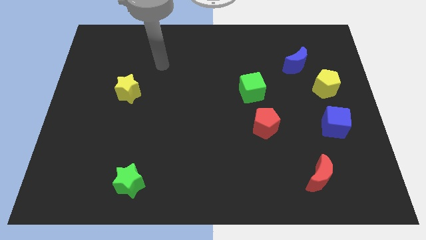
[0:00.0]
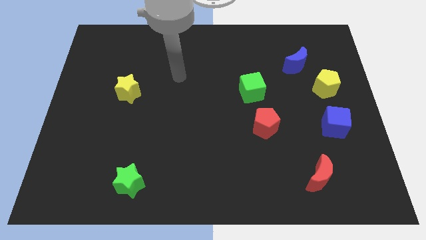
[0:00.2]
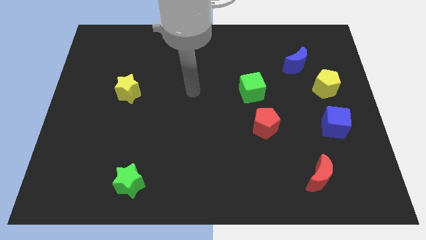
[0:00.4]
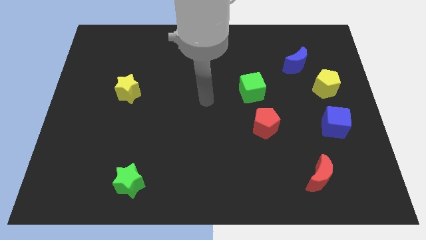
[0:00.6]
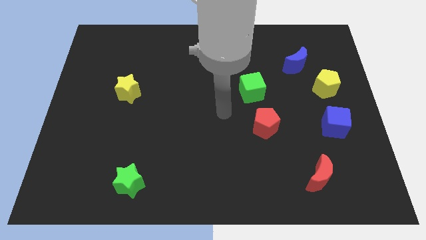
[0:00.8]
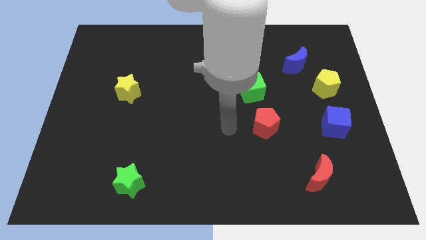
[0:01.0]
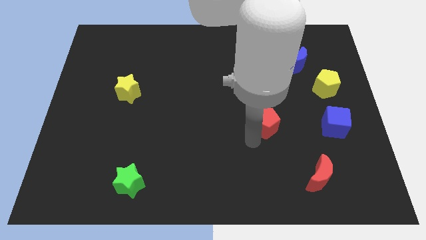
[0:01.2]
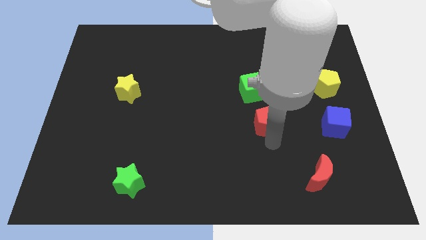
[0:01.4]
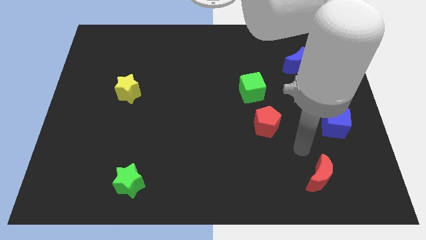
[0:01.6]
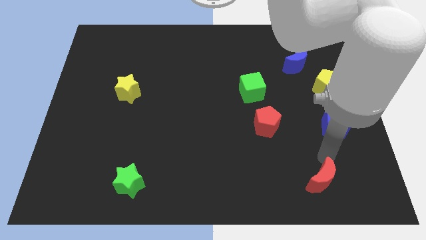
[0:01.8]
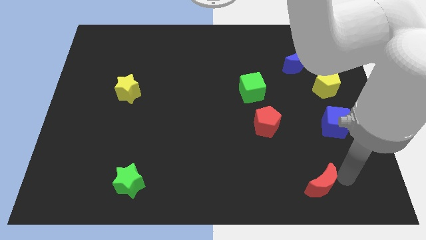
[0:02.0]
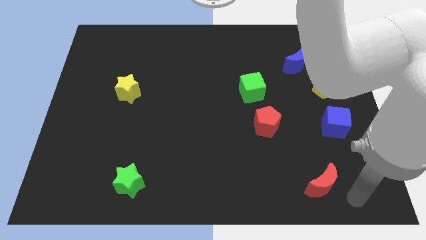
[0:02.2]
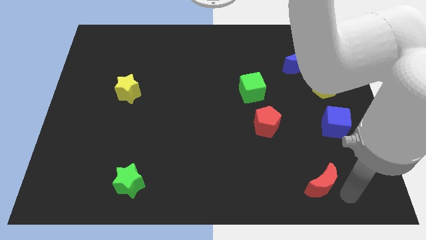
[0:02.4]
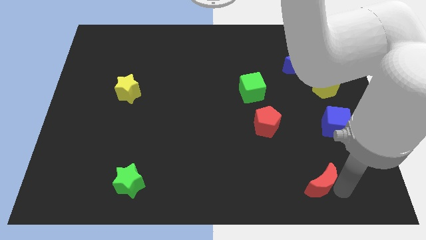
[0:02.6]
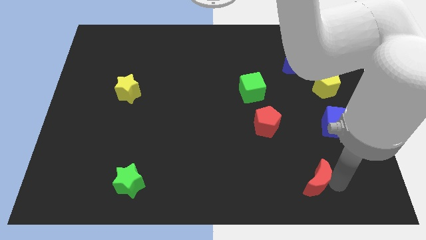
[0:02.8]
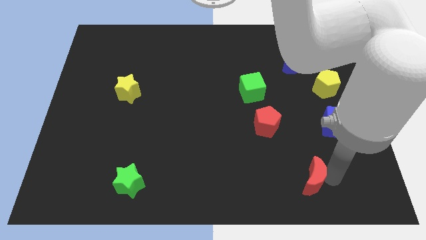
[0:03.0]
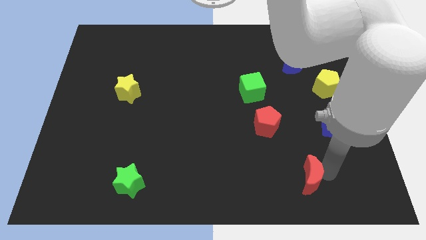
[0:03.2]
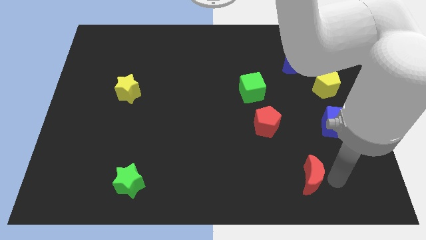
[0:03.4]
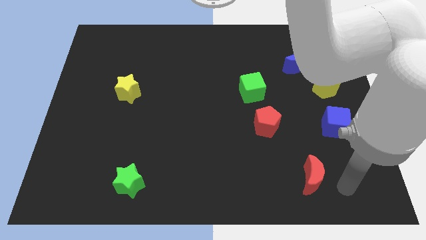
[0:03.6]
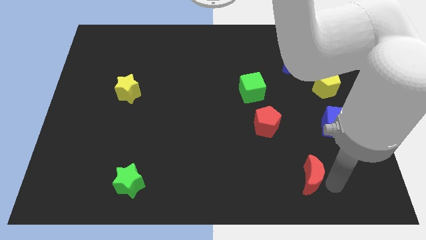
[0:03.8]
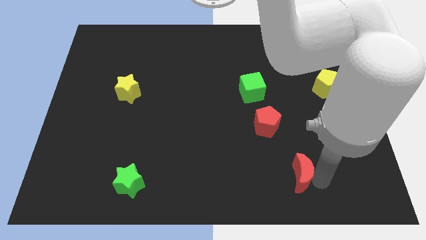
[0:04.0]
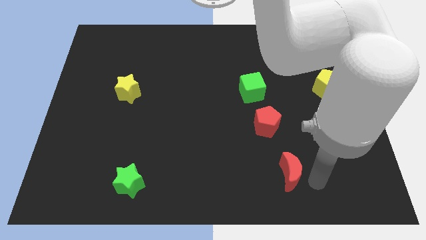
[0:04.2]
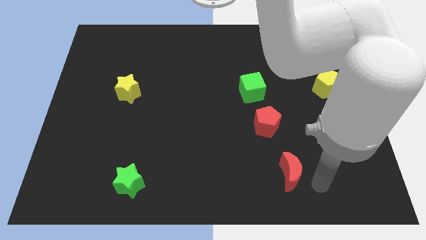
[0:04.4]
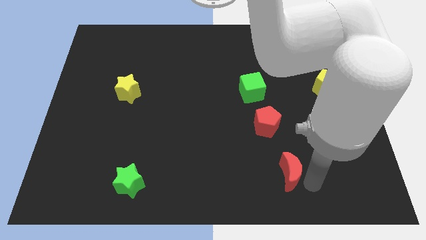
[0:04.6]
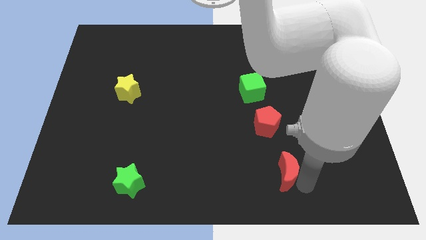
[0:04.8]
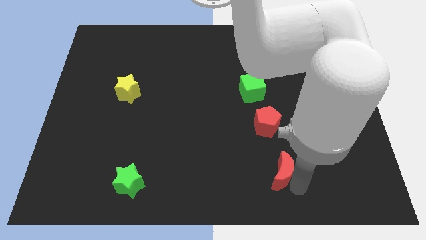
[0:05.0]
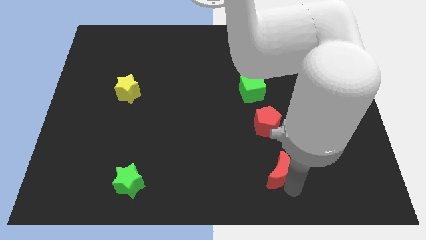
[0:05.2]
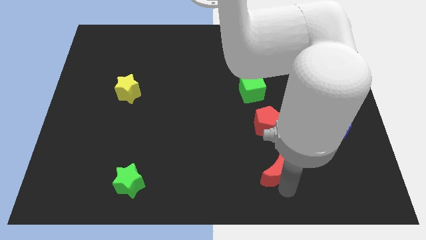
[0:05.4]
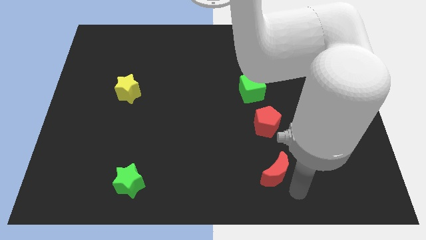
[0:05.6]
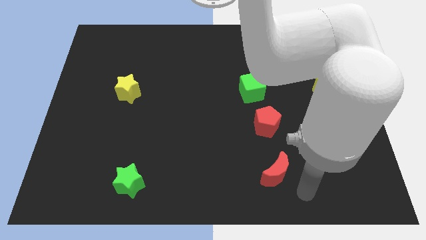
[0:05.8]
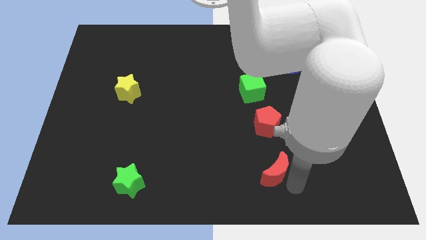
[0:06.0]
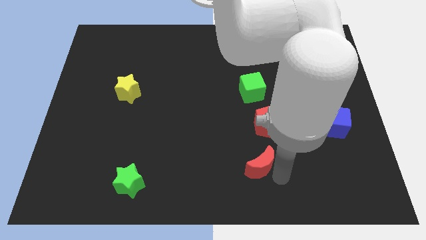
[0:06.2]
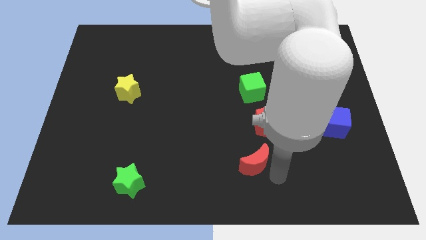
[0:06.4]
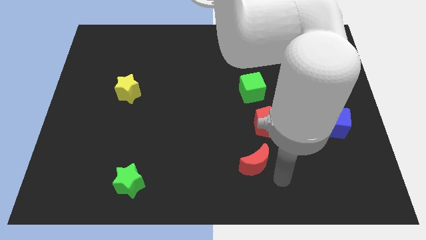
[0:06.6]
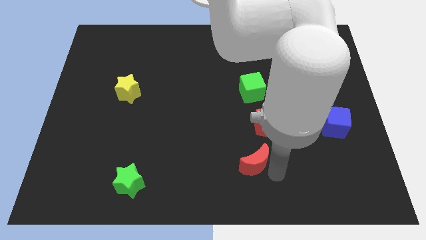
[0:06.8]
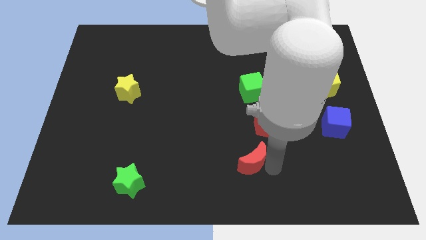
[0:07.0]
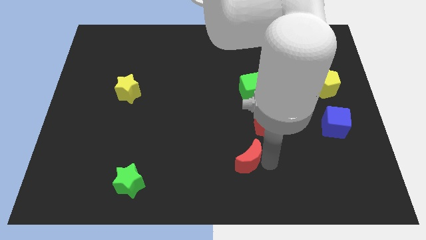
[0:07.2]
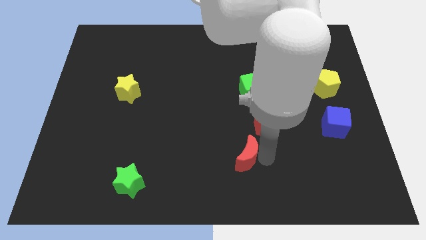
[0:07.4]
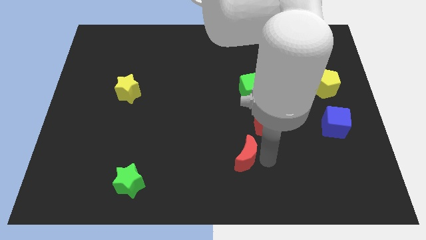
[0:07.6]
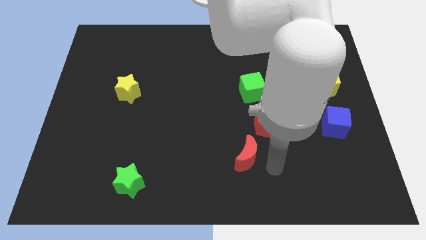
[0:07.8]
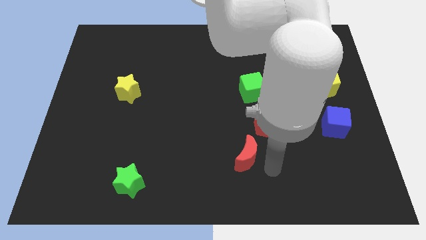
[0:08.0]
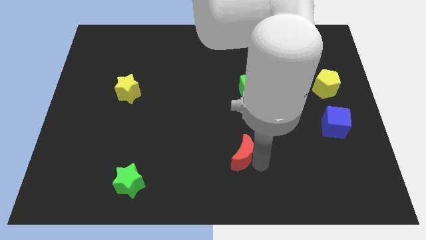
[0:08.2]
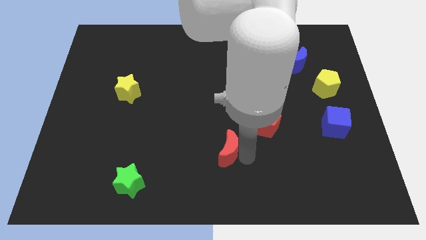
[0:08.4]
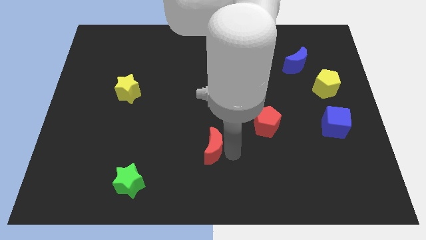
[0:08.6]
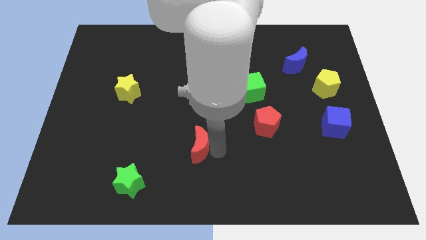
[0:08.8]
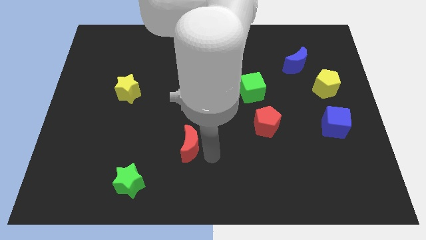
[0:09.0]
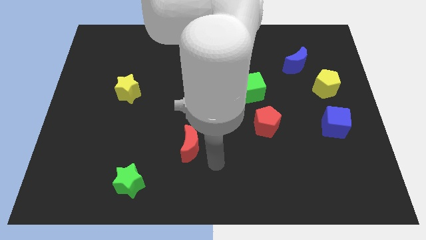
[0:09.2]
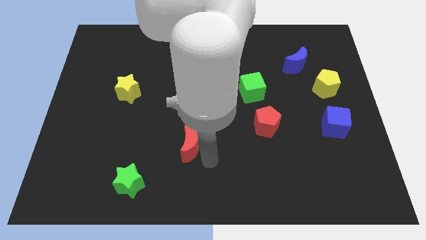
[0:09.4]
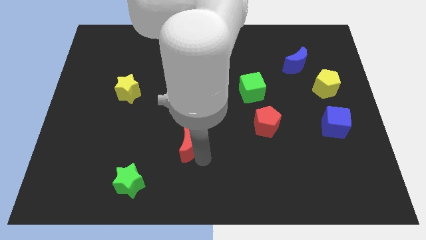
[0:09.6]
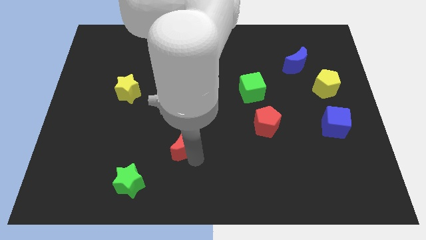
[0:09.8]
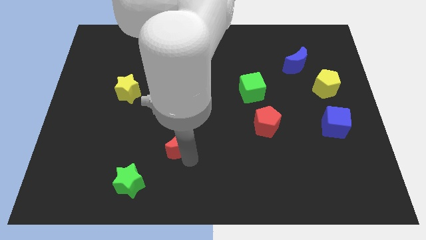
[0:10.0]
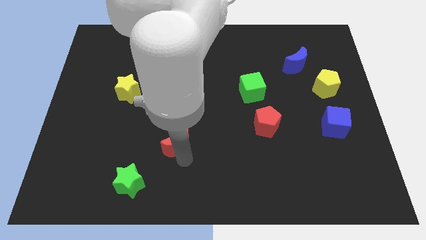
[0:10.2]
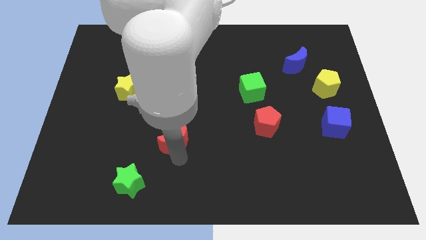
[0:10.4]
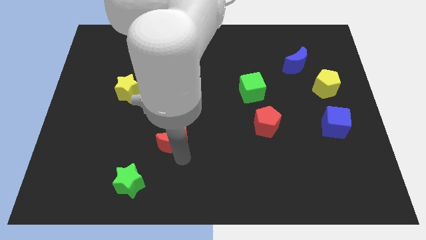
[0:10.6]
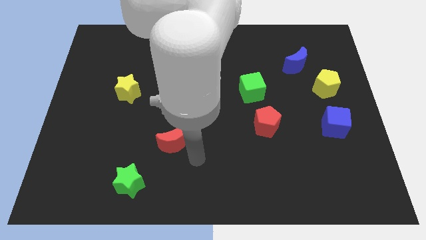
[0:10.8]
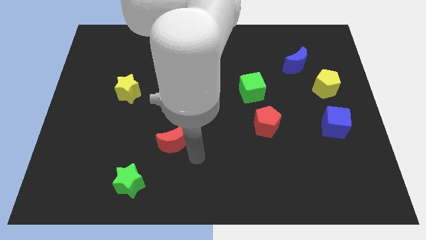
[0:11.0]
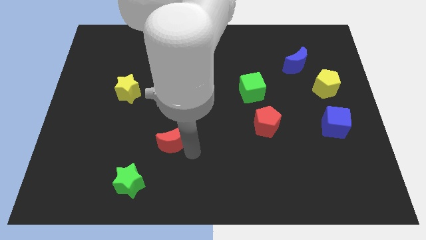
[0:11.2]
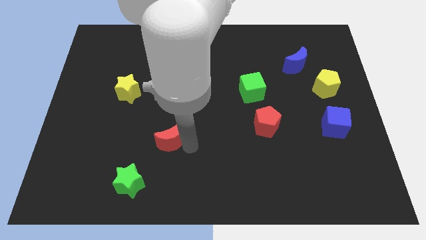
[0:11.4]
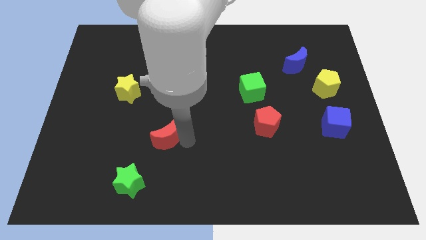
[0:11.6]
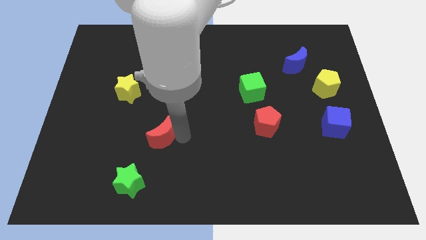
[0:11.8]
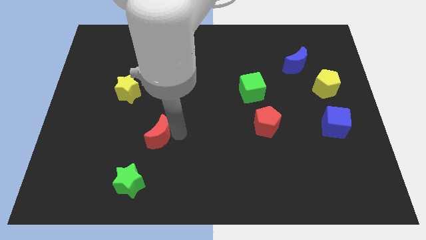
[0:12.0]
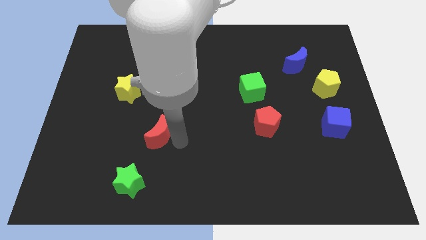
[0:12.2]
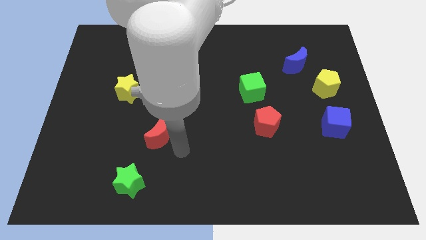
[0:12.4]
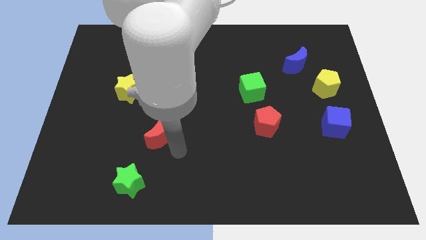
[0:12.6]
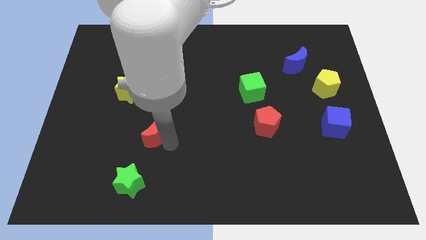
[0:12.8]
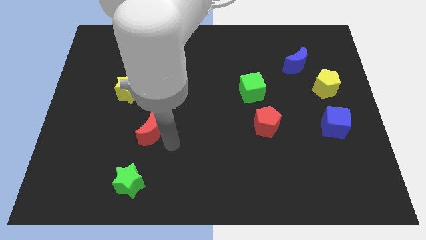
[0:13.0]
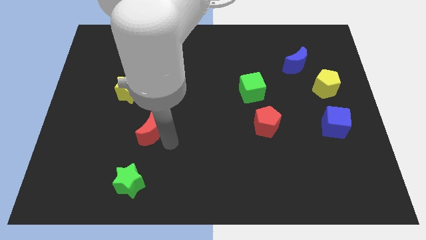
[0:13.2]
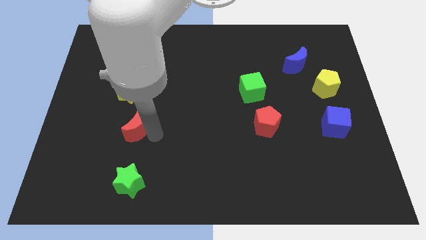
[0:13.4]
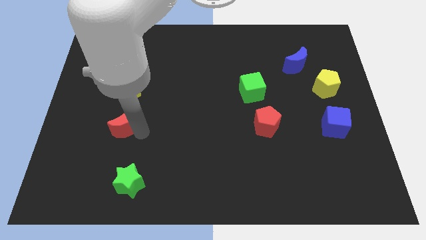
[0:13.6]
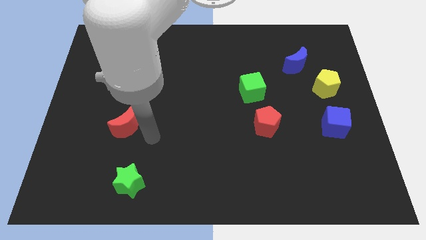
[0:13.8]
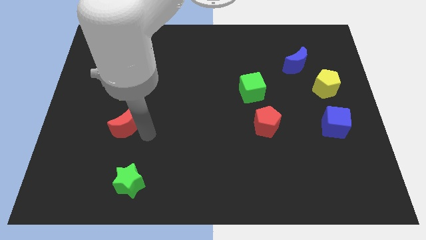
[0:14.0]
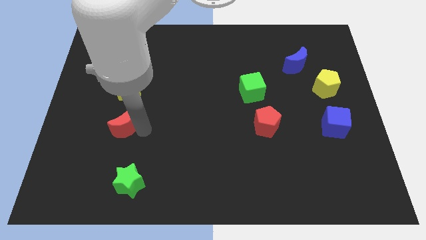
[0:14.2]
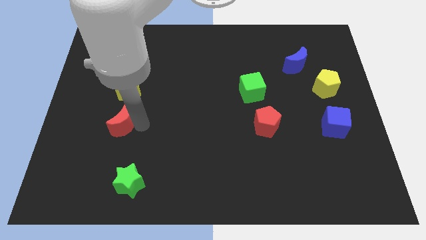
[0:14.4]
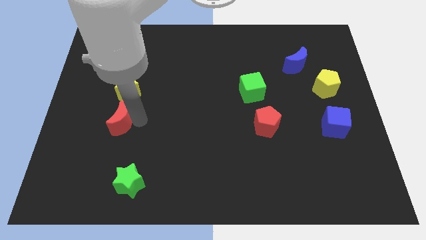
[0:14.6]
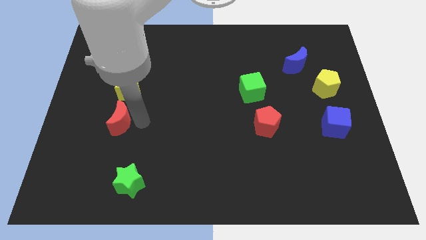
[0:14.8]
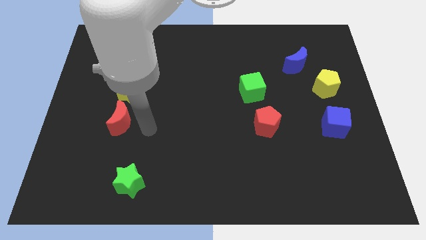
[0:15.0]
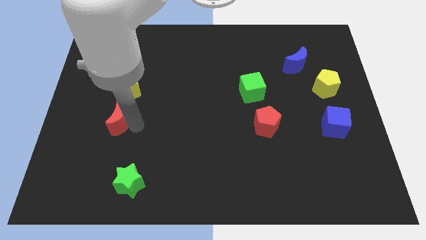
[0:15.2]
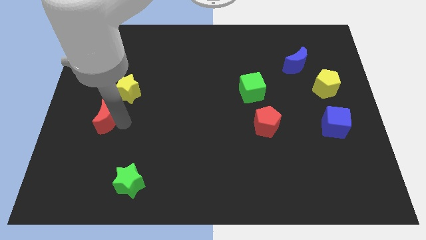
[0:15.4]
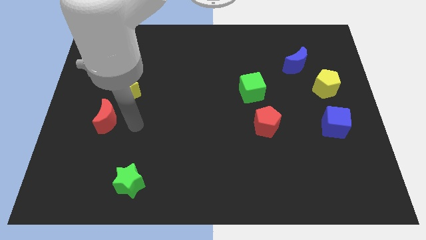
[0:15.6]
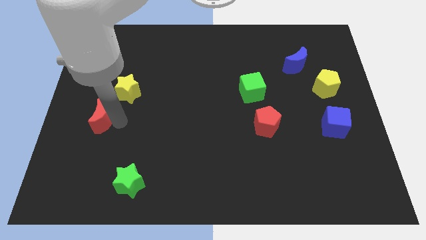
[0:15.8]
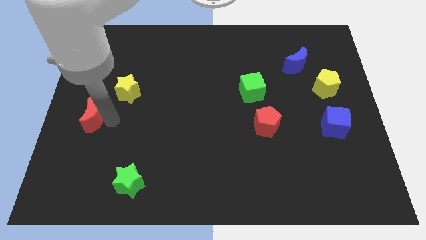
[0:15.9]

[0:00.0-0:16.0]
put the red moon to the left side of the board
